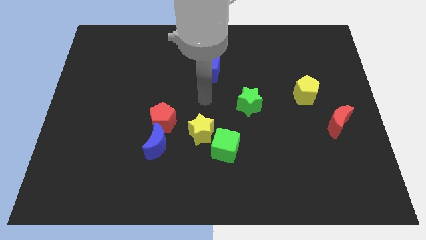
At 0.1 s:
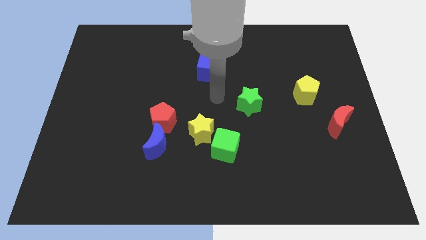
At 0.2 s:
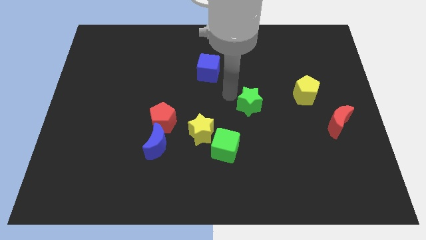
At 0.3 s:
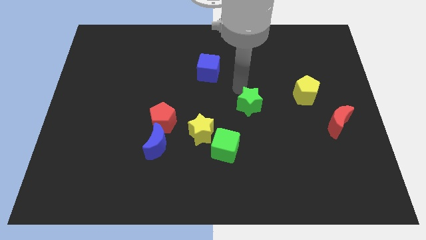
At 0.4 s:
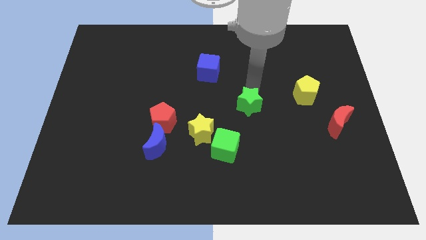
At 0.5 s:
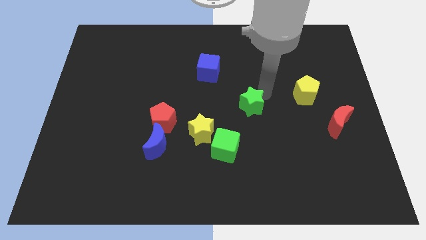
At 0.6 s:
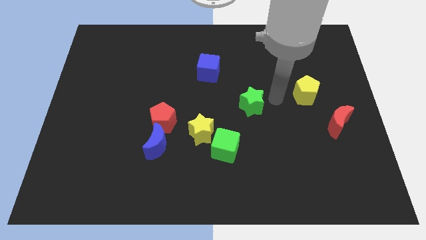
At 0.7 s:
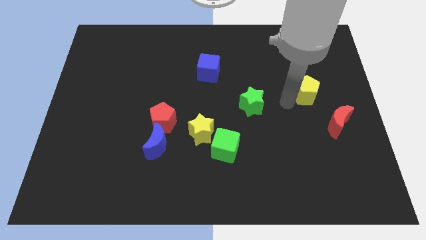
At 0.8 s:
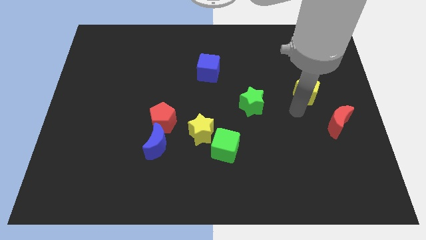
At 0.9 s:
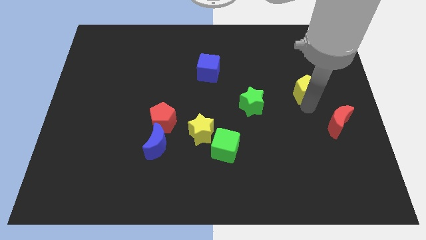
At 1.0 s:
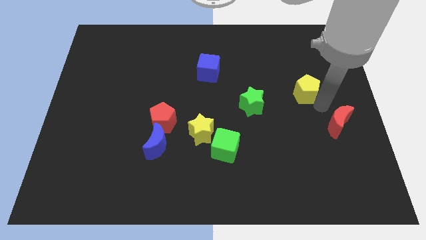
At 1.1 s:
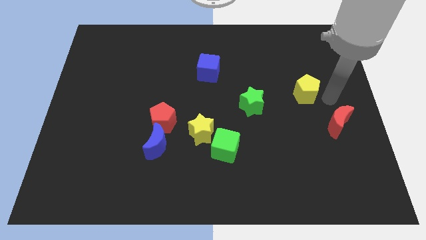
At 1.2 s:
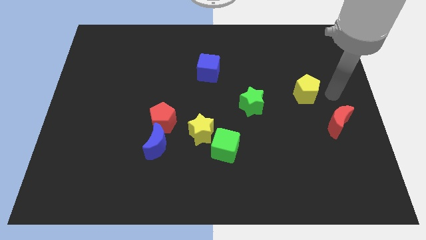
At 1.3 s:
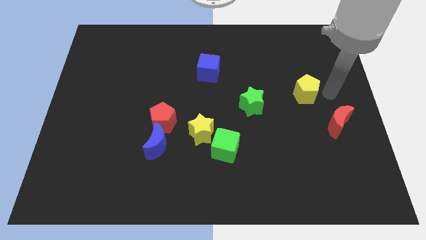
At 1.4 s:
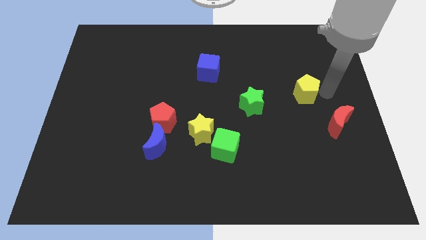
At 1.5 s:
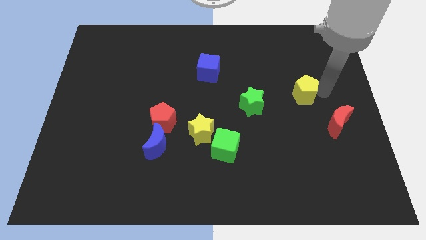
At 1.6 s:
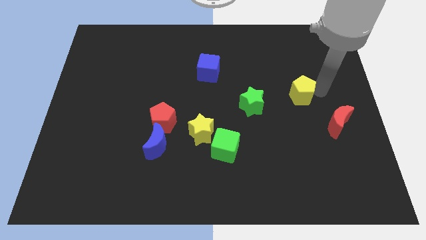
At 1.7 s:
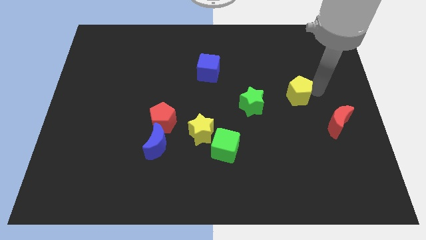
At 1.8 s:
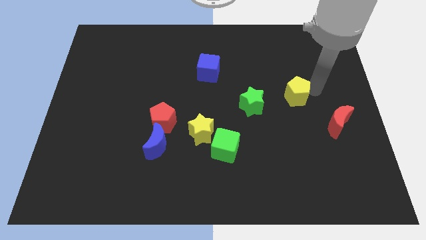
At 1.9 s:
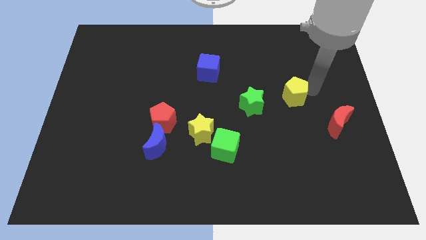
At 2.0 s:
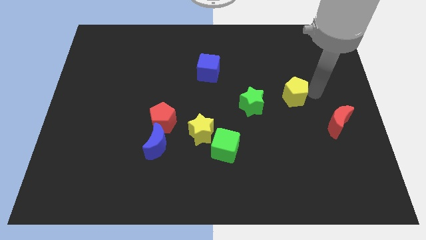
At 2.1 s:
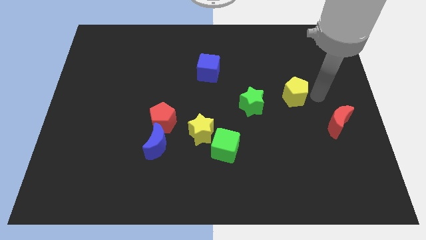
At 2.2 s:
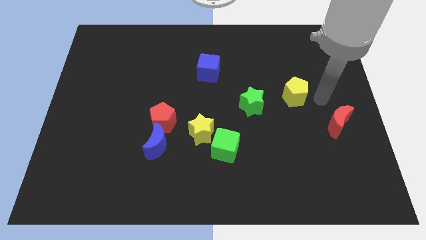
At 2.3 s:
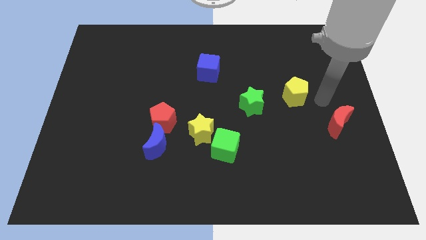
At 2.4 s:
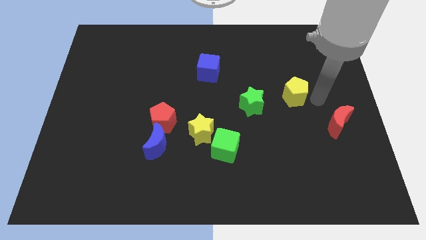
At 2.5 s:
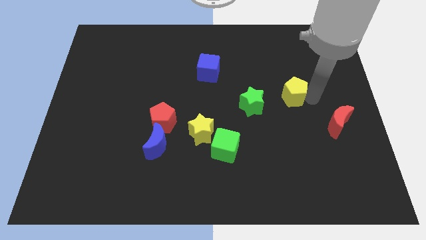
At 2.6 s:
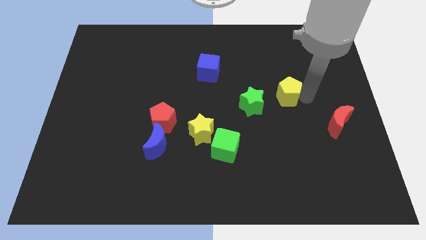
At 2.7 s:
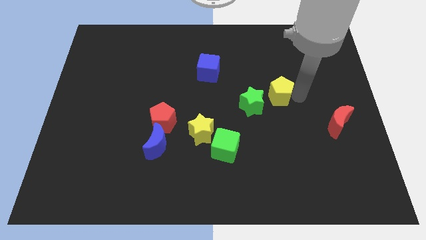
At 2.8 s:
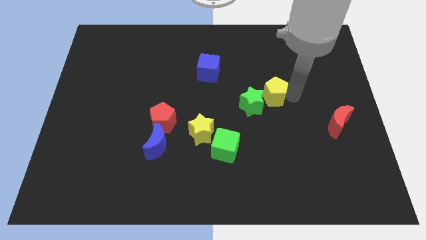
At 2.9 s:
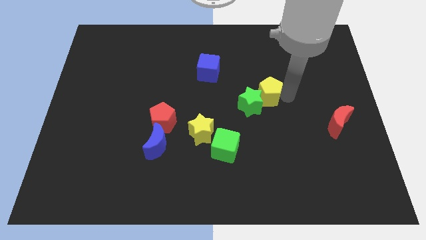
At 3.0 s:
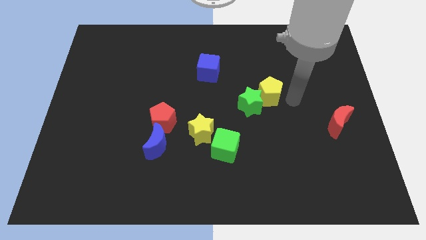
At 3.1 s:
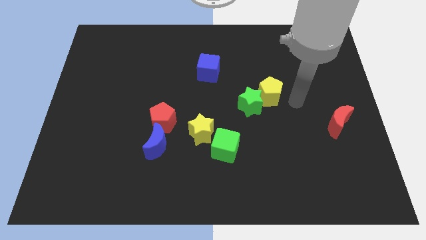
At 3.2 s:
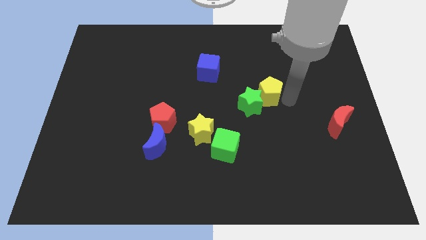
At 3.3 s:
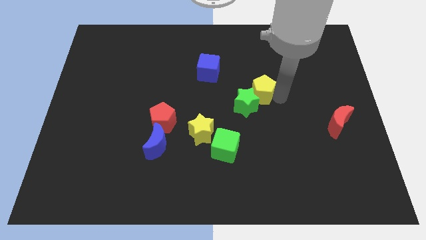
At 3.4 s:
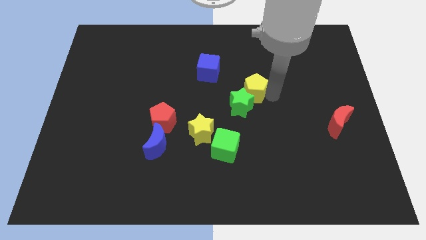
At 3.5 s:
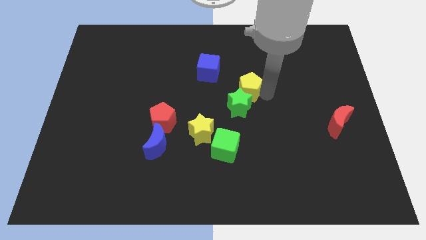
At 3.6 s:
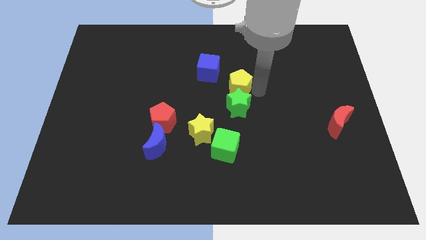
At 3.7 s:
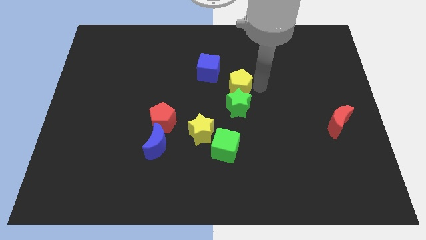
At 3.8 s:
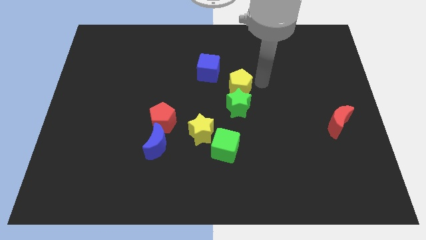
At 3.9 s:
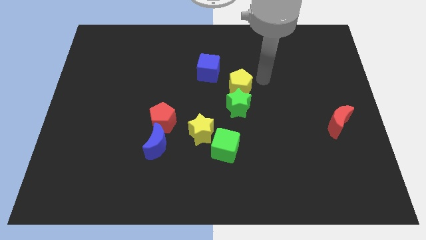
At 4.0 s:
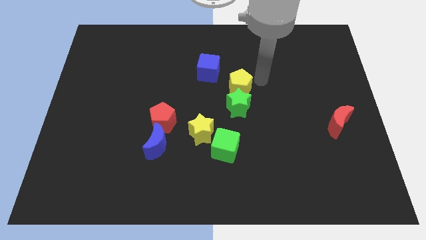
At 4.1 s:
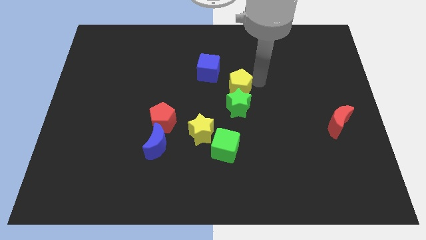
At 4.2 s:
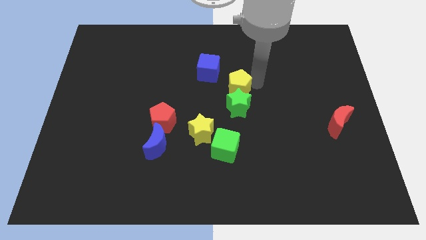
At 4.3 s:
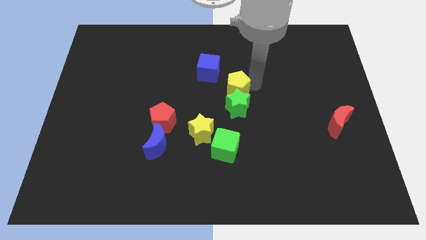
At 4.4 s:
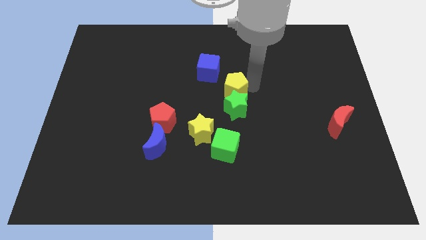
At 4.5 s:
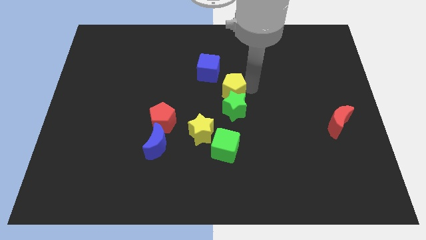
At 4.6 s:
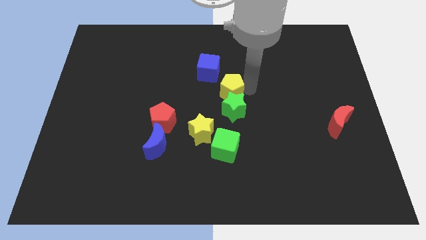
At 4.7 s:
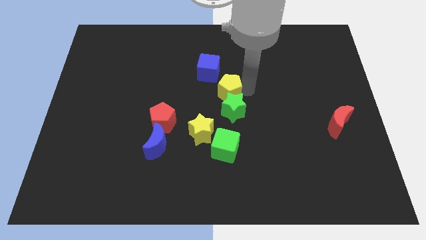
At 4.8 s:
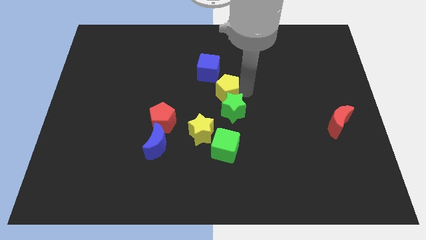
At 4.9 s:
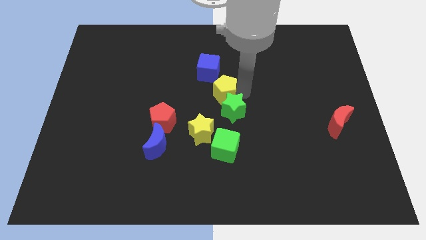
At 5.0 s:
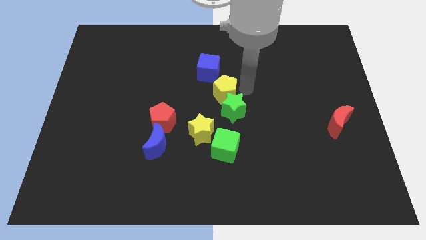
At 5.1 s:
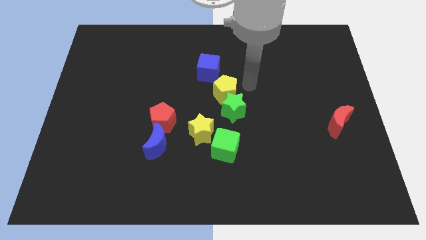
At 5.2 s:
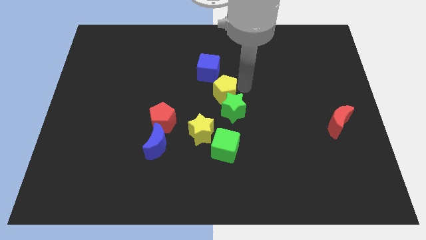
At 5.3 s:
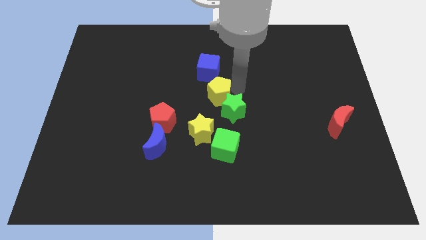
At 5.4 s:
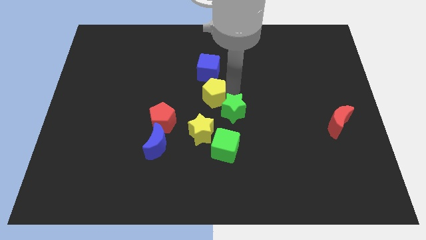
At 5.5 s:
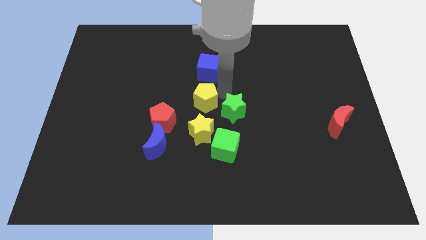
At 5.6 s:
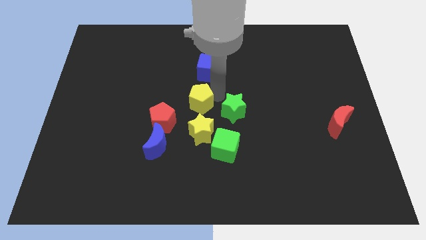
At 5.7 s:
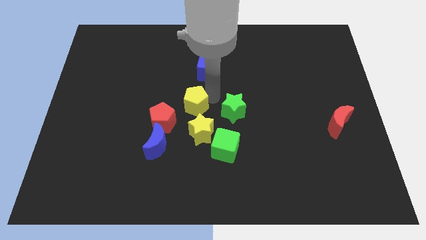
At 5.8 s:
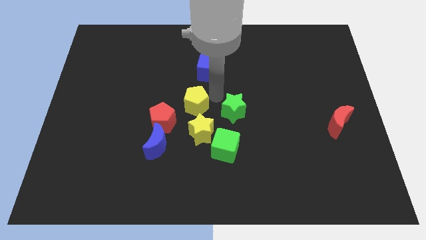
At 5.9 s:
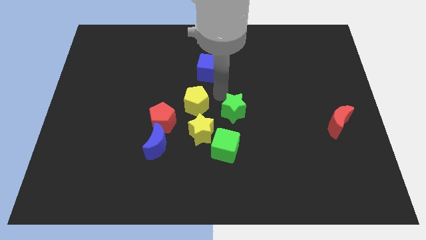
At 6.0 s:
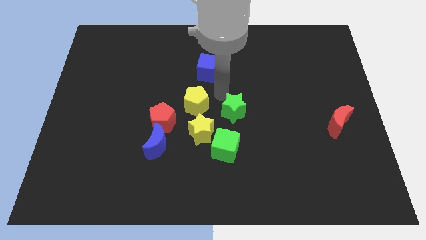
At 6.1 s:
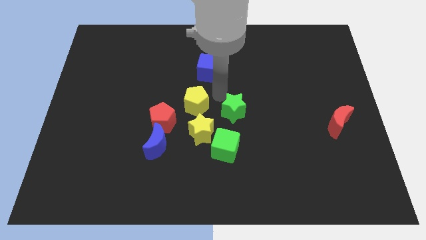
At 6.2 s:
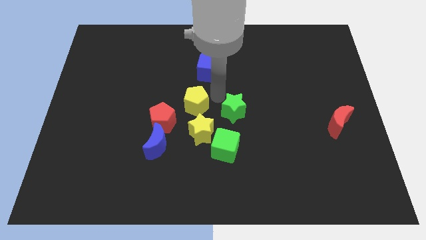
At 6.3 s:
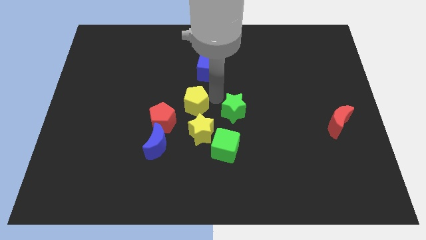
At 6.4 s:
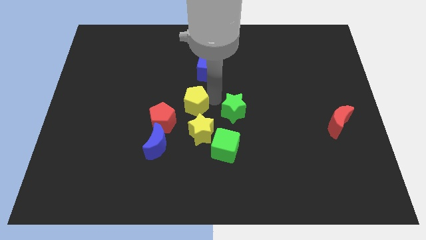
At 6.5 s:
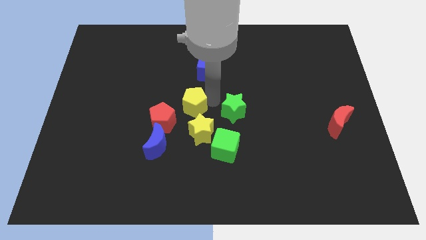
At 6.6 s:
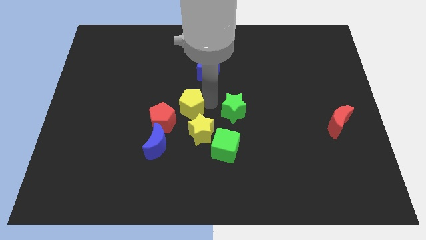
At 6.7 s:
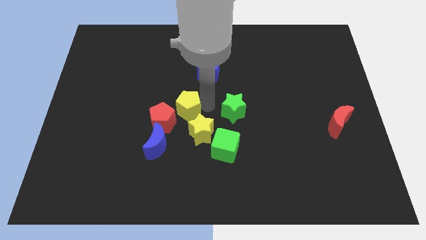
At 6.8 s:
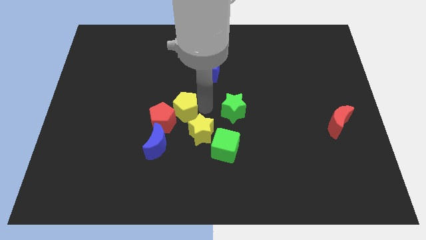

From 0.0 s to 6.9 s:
move the yellow pentagon to the red pentagon

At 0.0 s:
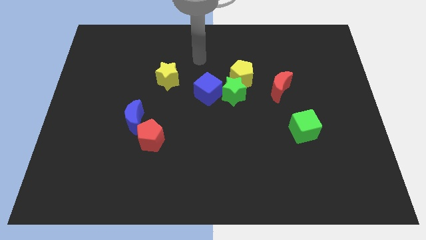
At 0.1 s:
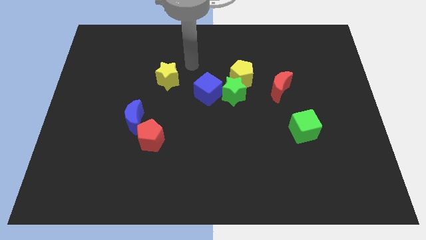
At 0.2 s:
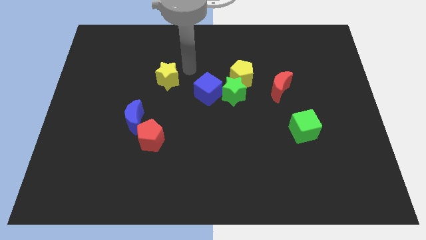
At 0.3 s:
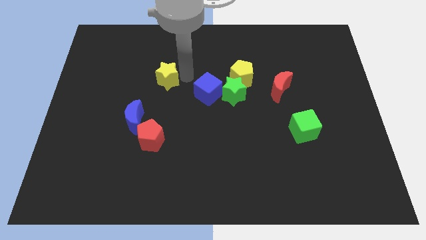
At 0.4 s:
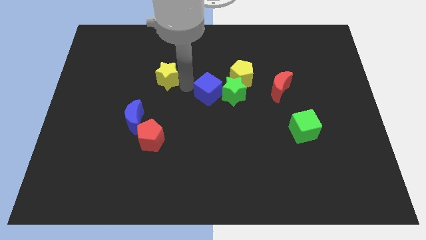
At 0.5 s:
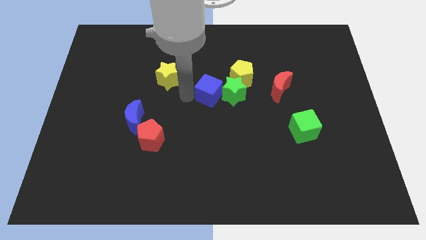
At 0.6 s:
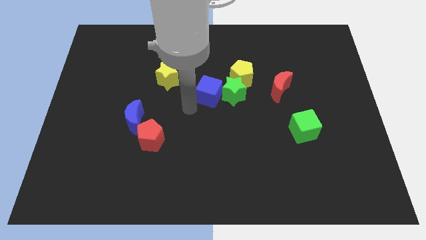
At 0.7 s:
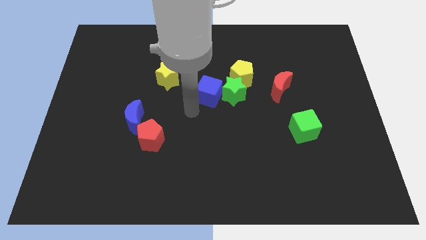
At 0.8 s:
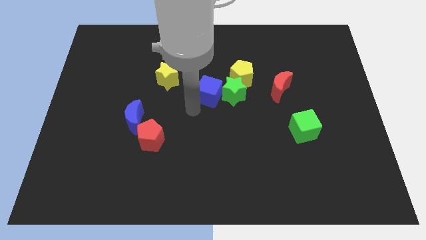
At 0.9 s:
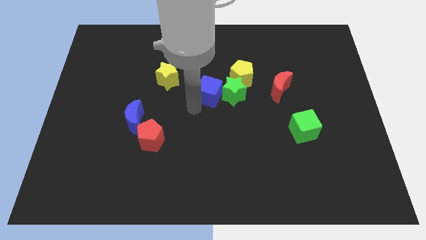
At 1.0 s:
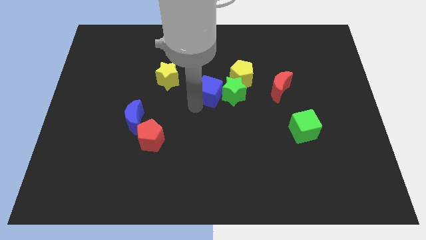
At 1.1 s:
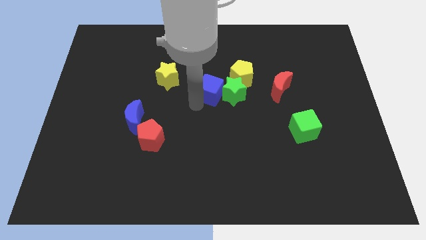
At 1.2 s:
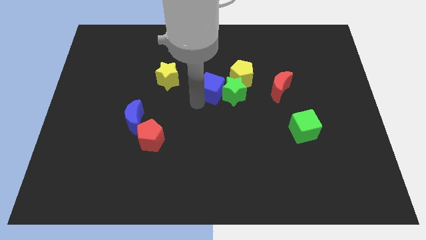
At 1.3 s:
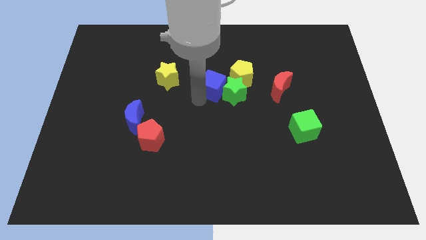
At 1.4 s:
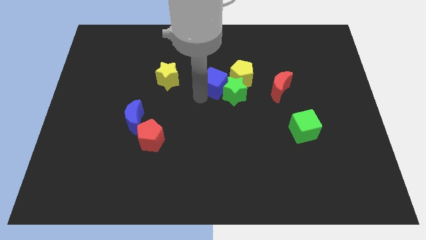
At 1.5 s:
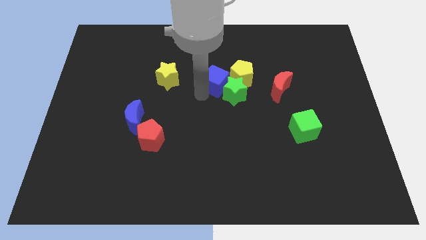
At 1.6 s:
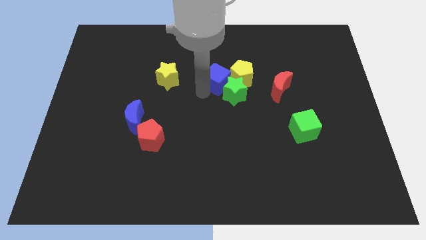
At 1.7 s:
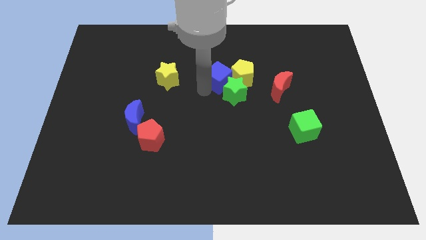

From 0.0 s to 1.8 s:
slide the blue cube next to the yellow pentagon
